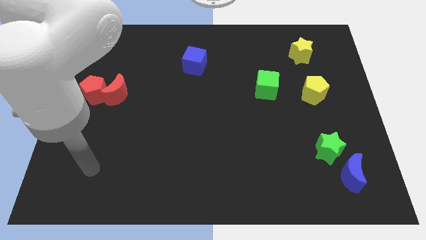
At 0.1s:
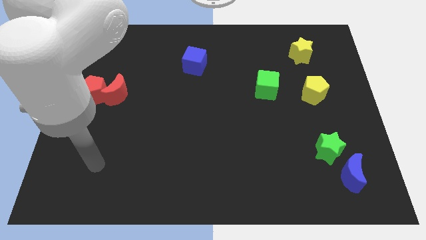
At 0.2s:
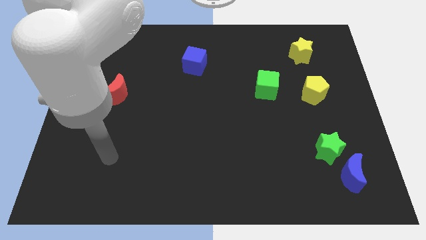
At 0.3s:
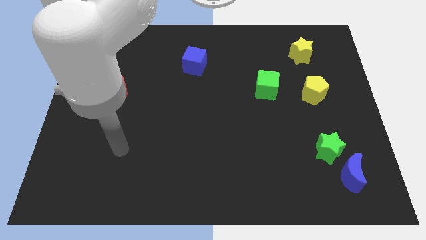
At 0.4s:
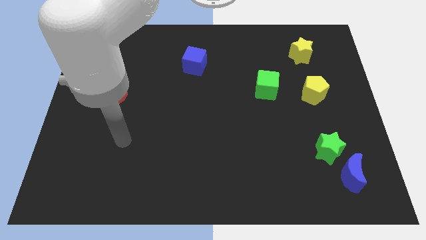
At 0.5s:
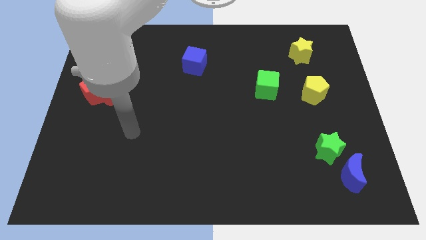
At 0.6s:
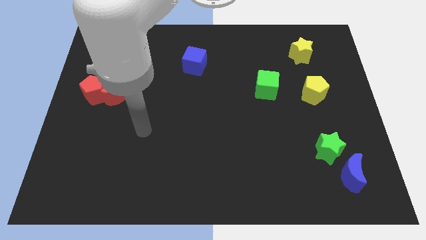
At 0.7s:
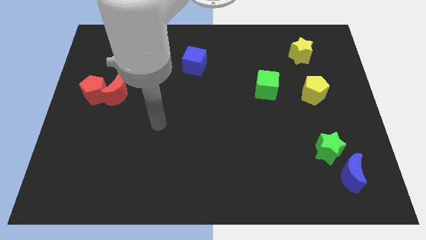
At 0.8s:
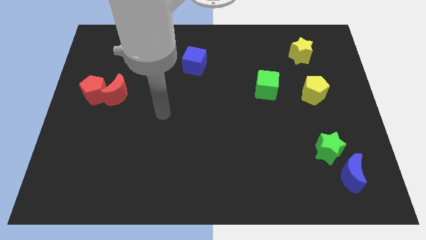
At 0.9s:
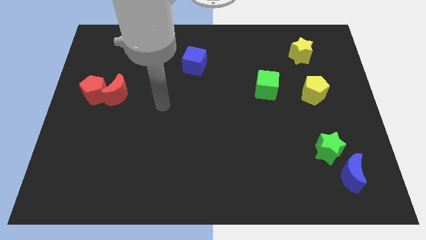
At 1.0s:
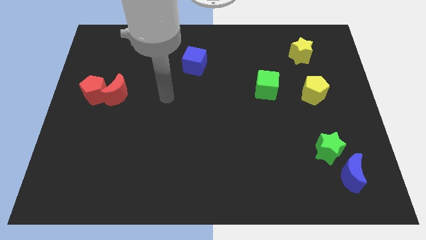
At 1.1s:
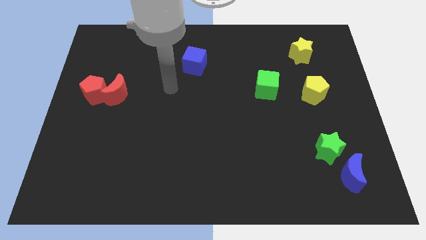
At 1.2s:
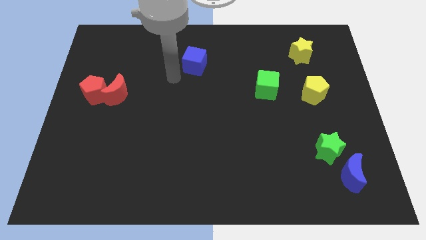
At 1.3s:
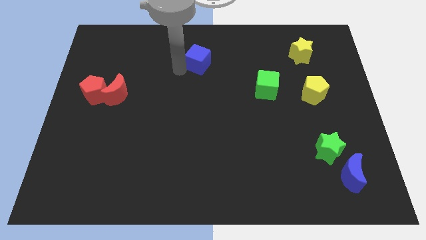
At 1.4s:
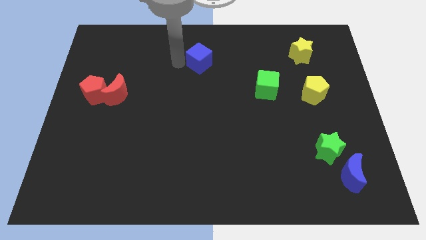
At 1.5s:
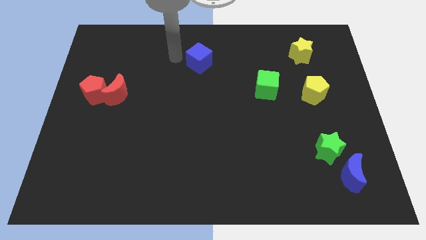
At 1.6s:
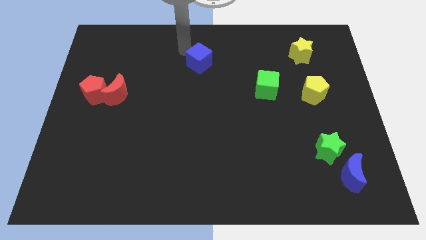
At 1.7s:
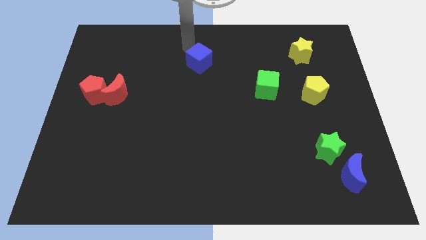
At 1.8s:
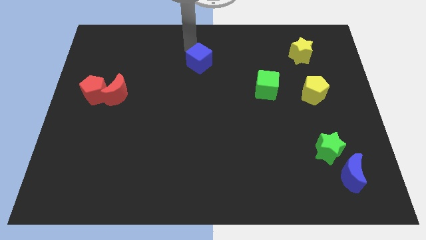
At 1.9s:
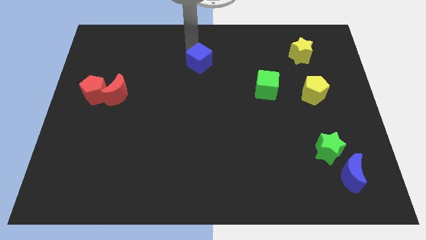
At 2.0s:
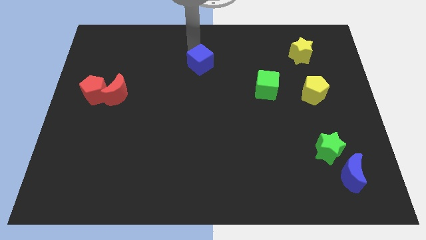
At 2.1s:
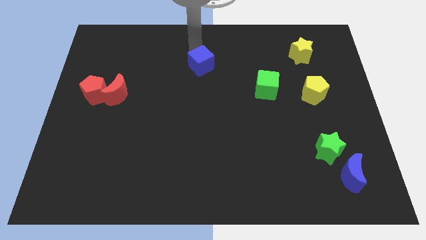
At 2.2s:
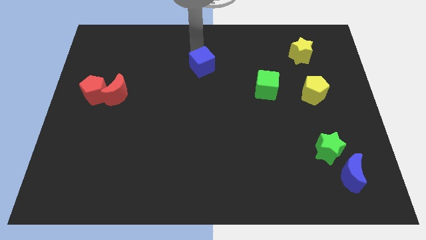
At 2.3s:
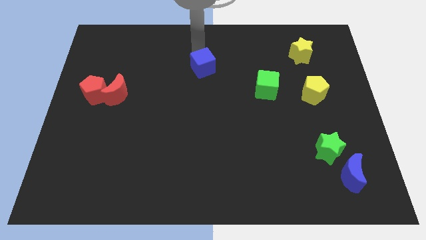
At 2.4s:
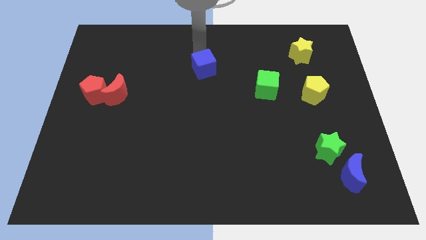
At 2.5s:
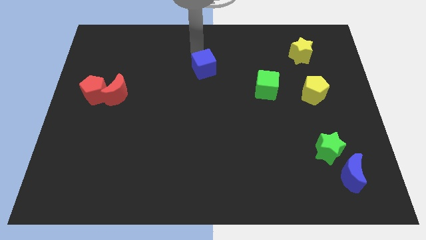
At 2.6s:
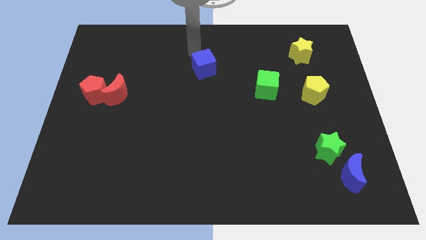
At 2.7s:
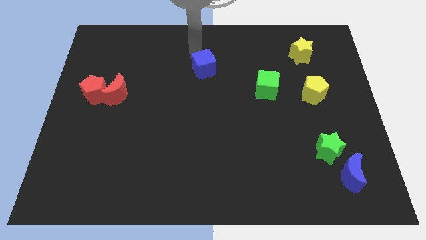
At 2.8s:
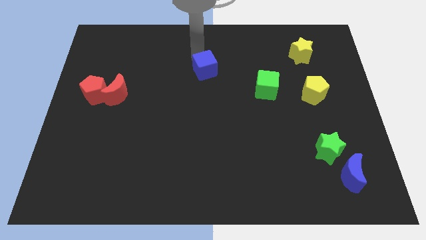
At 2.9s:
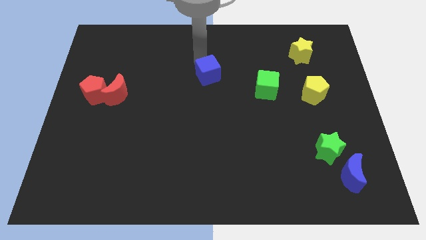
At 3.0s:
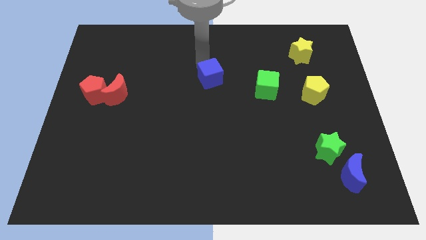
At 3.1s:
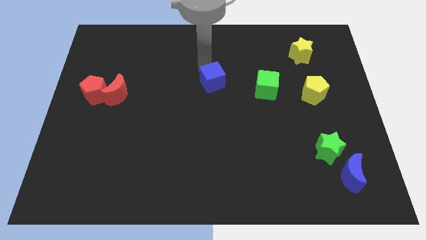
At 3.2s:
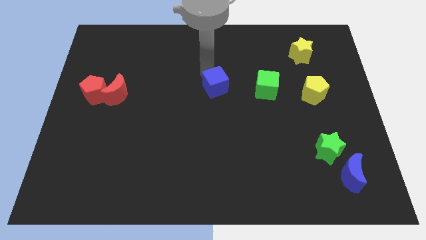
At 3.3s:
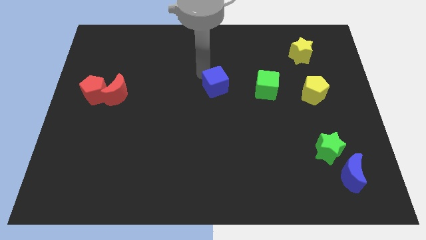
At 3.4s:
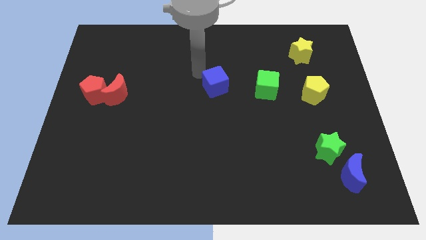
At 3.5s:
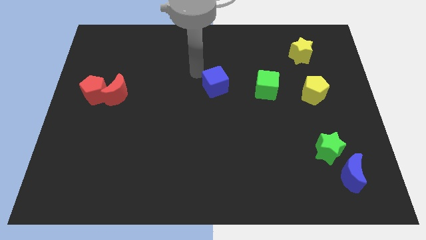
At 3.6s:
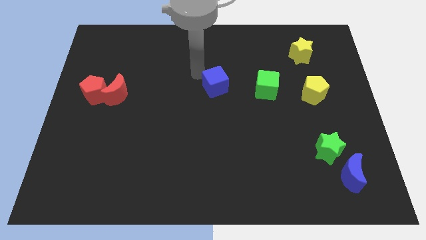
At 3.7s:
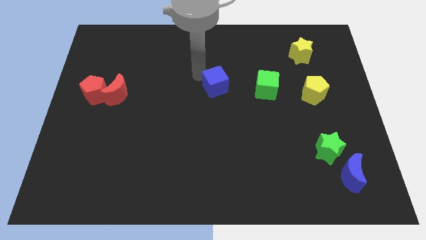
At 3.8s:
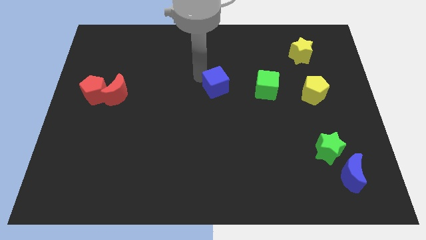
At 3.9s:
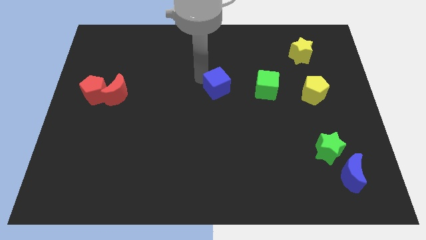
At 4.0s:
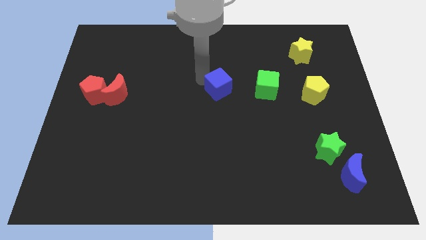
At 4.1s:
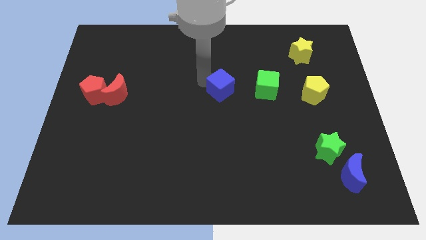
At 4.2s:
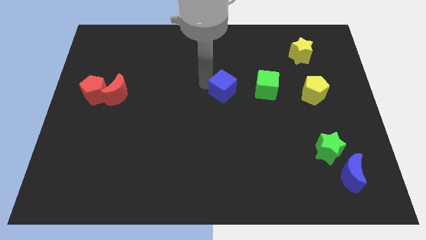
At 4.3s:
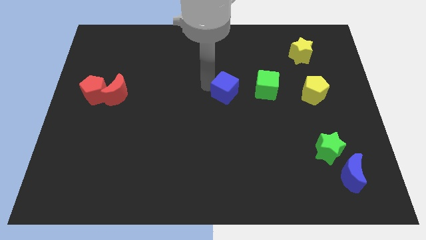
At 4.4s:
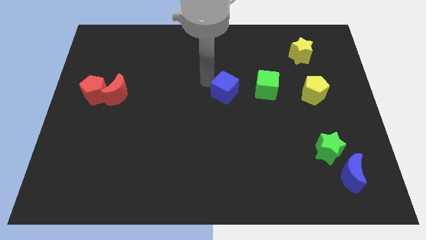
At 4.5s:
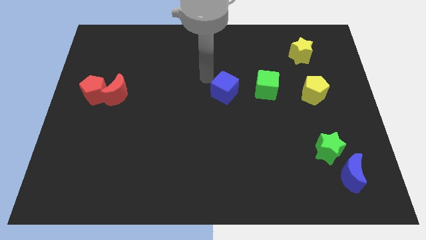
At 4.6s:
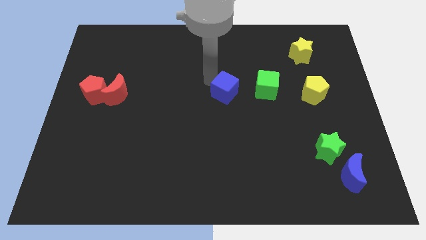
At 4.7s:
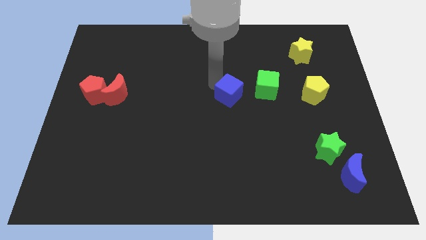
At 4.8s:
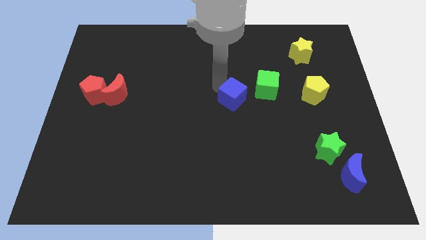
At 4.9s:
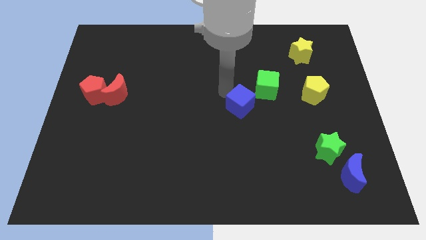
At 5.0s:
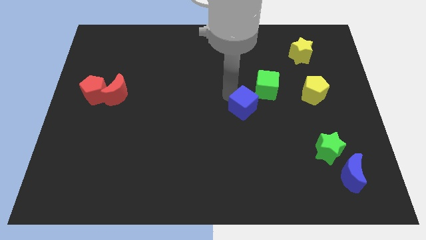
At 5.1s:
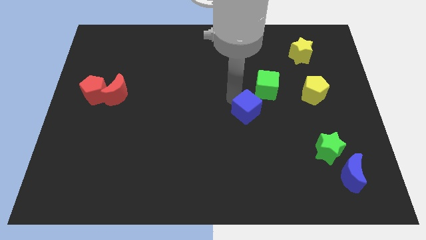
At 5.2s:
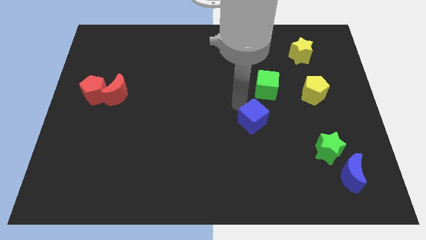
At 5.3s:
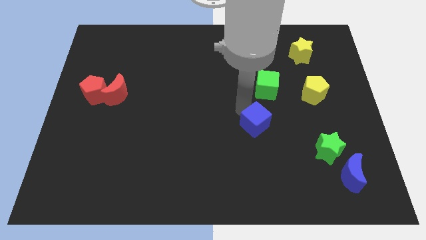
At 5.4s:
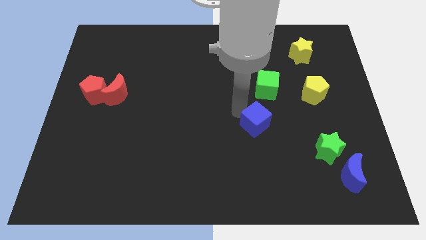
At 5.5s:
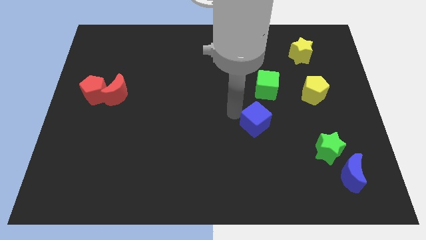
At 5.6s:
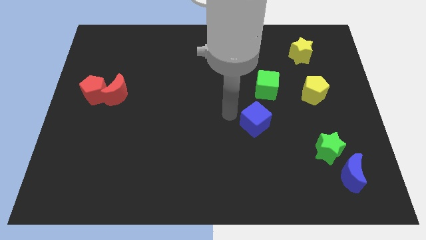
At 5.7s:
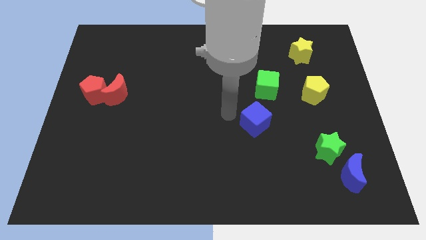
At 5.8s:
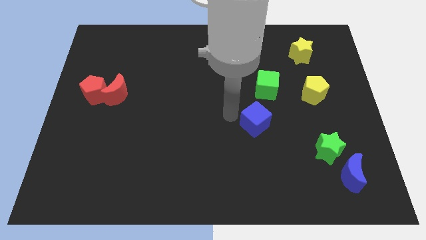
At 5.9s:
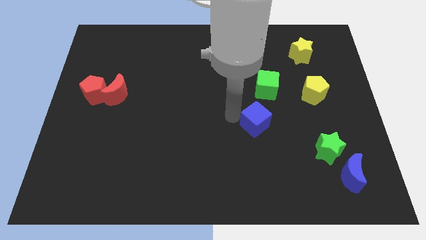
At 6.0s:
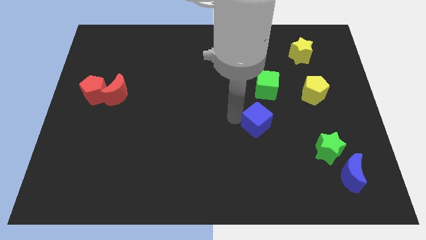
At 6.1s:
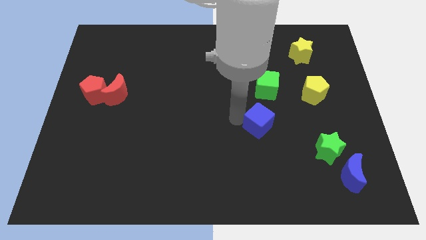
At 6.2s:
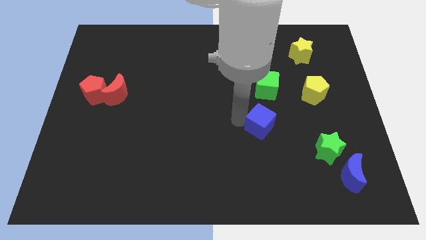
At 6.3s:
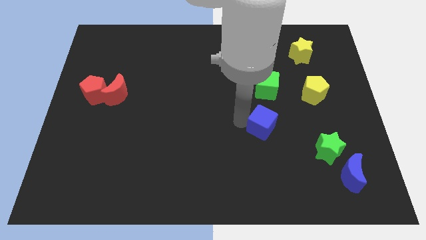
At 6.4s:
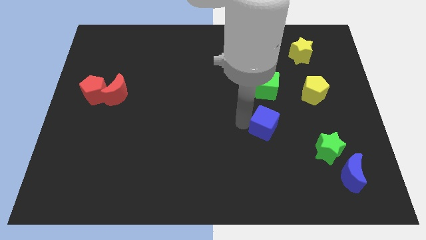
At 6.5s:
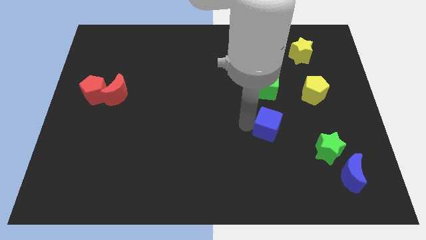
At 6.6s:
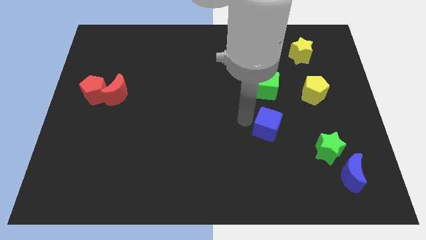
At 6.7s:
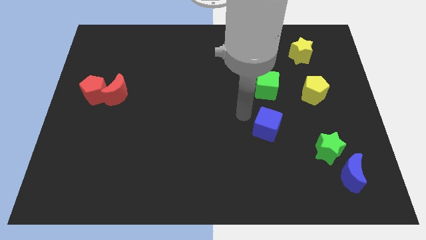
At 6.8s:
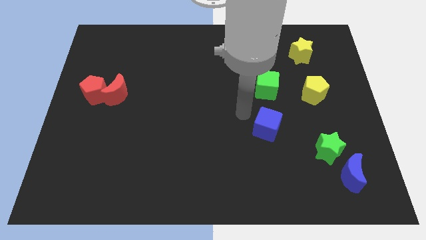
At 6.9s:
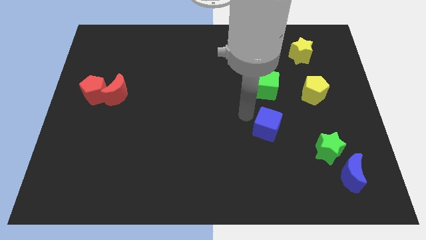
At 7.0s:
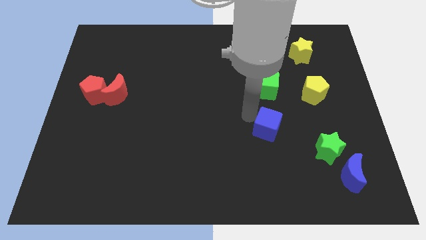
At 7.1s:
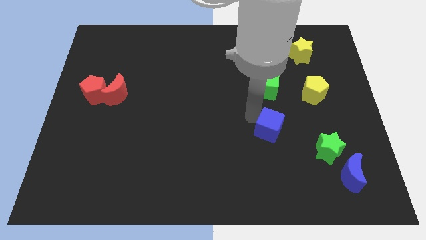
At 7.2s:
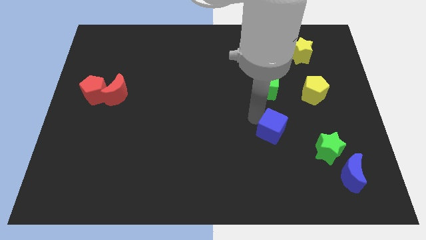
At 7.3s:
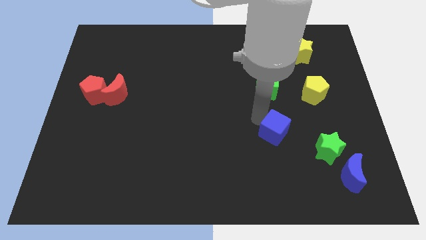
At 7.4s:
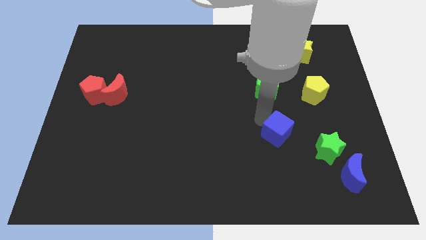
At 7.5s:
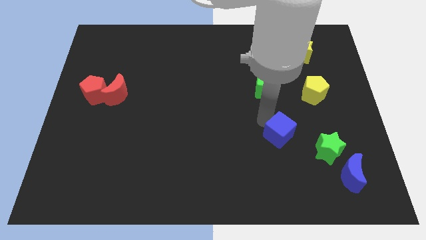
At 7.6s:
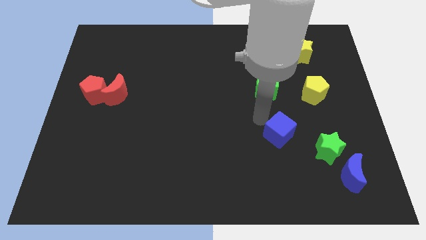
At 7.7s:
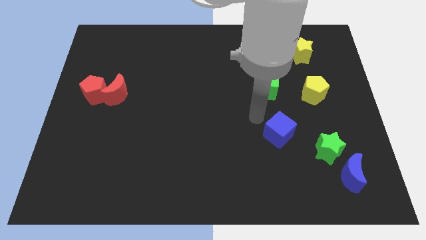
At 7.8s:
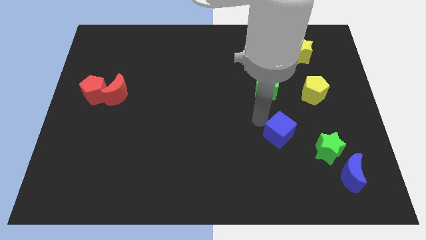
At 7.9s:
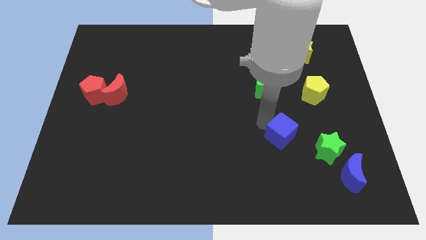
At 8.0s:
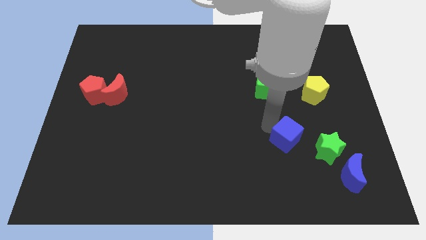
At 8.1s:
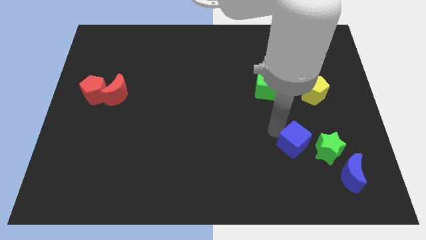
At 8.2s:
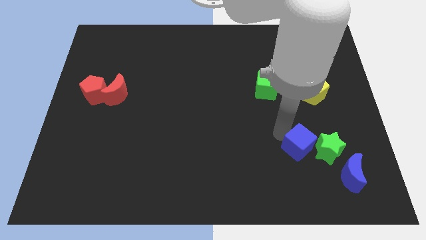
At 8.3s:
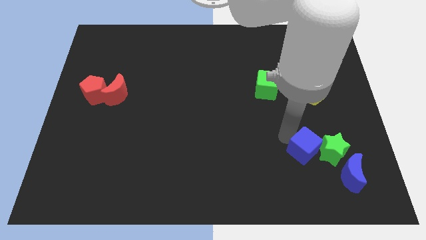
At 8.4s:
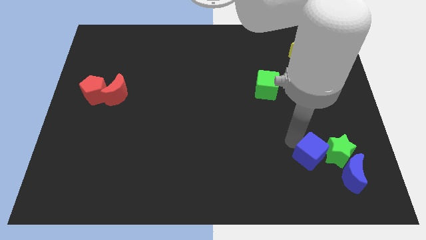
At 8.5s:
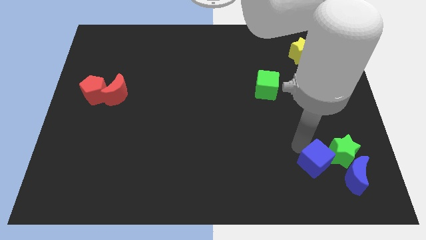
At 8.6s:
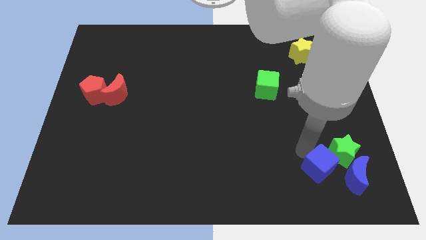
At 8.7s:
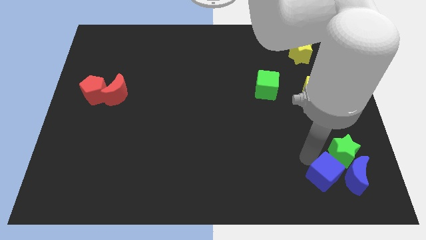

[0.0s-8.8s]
put the blue cube towards the blue moon
